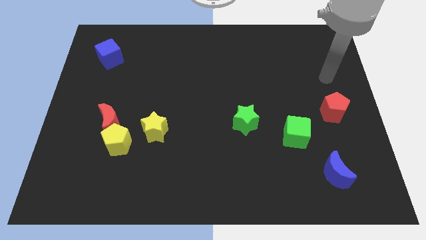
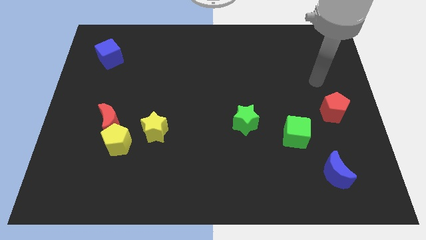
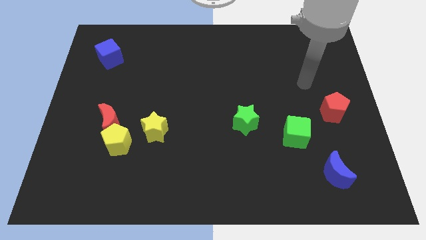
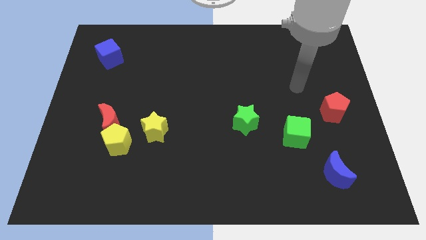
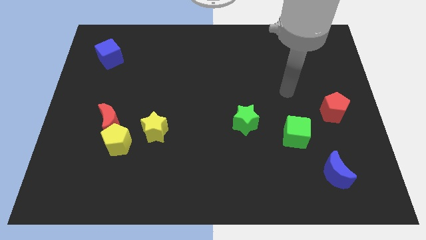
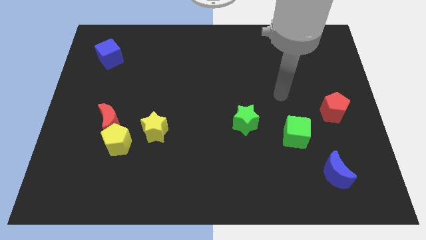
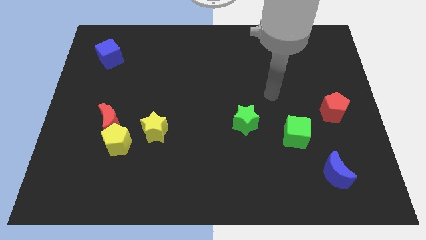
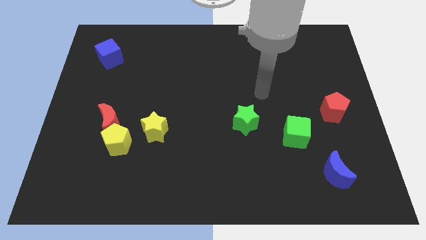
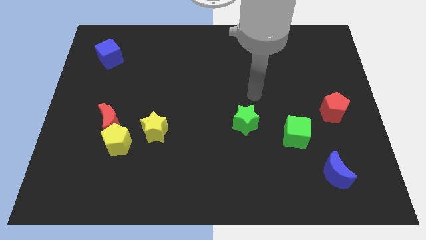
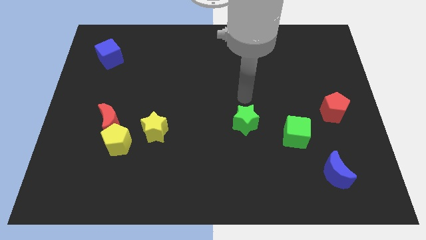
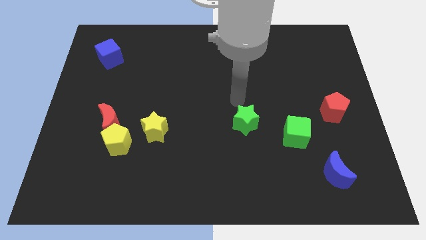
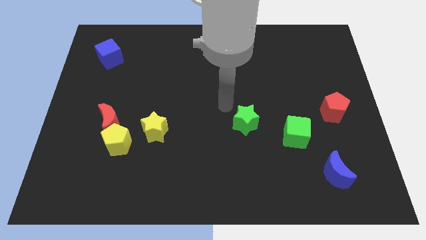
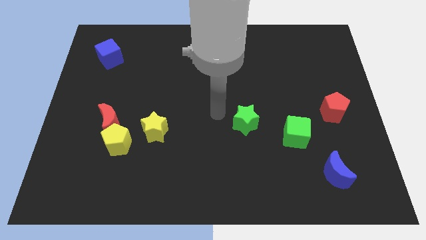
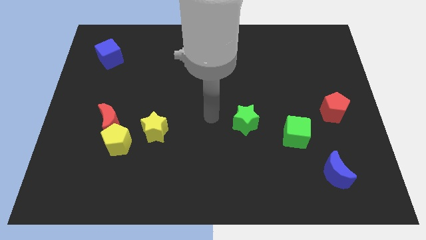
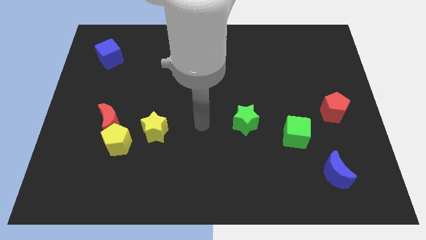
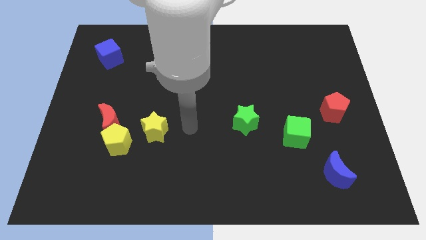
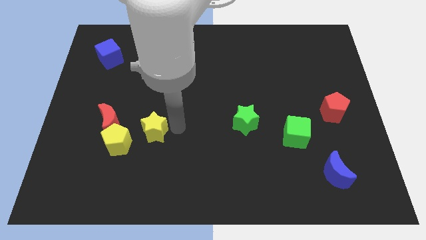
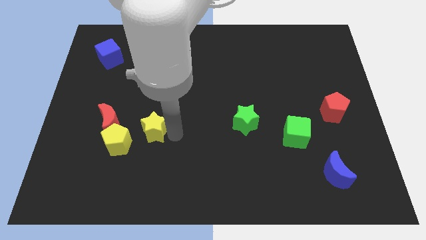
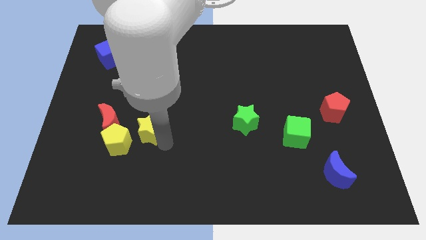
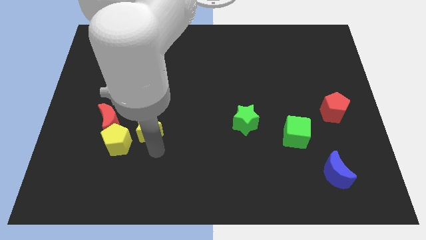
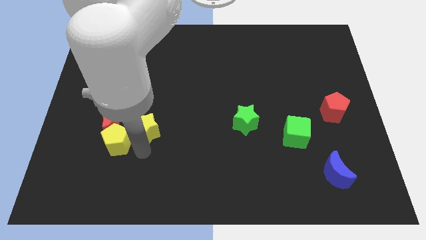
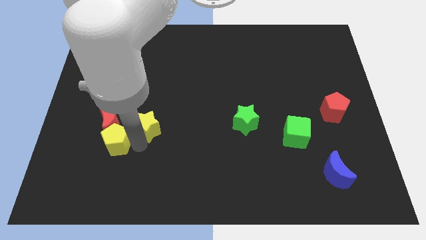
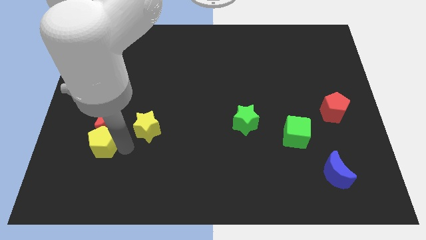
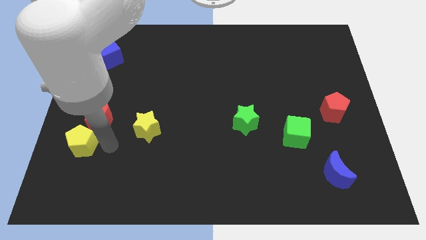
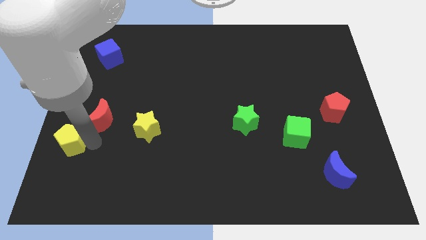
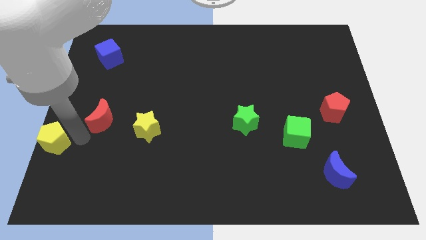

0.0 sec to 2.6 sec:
move the red moon away from the yellow pentagon

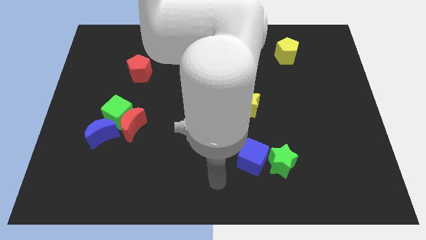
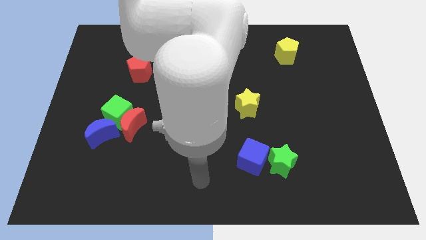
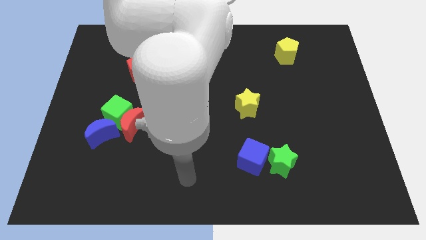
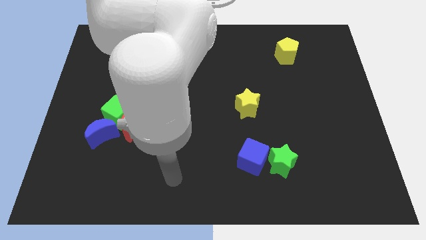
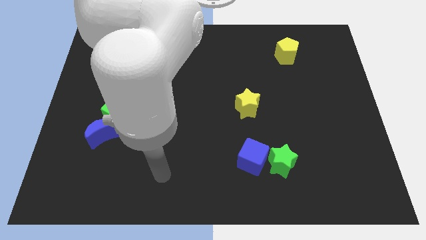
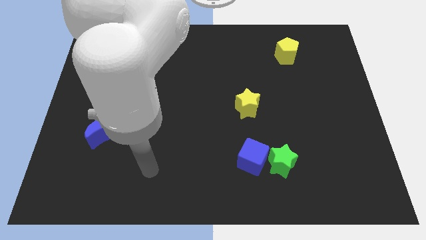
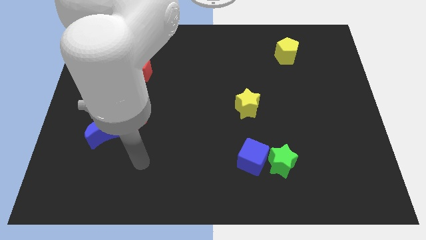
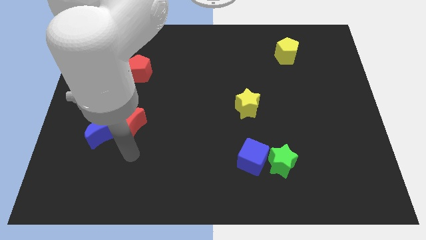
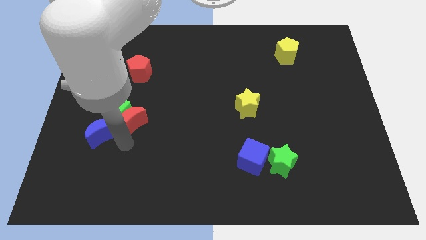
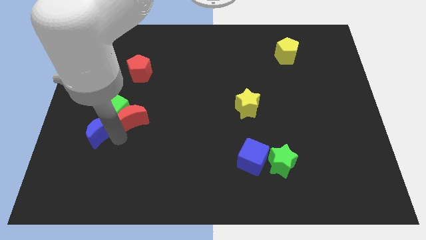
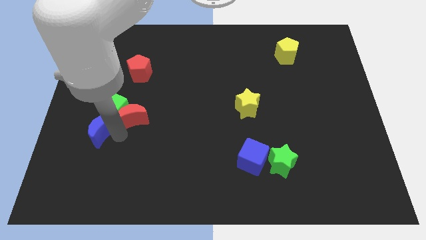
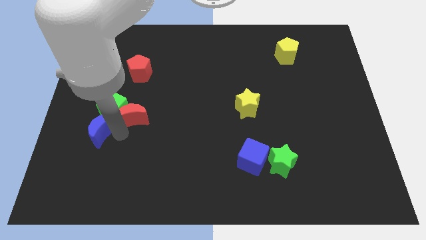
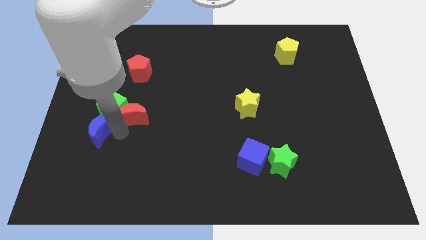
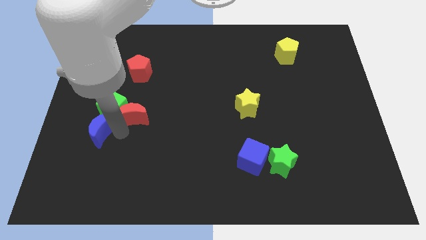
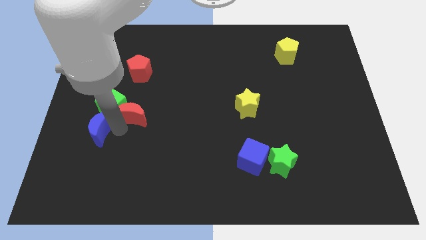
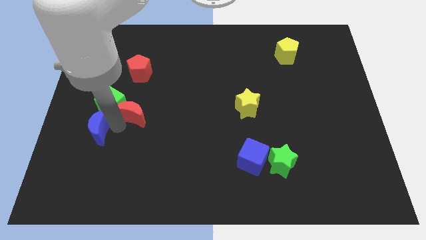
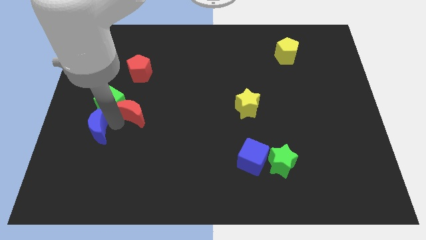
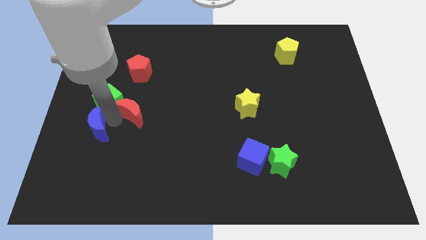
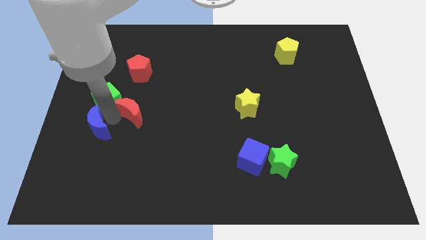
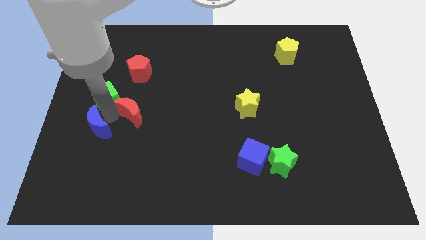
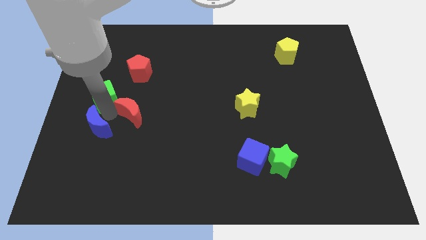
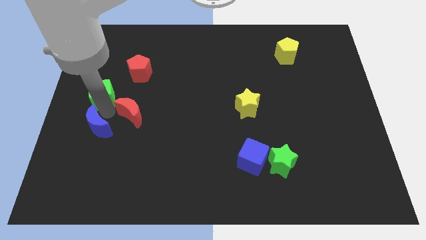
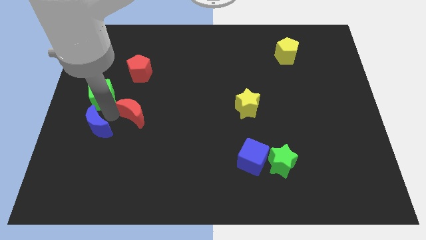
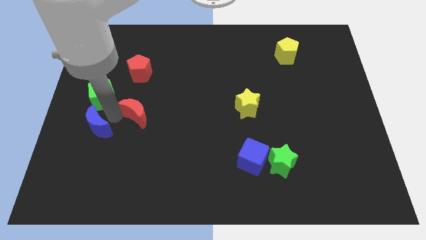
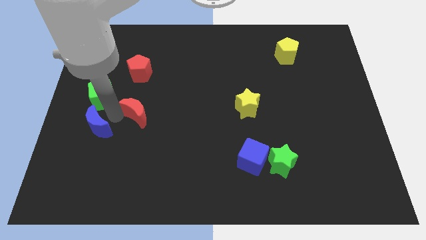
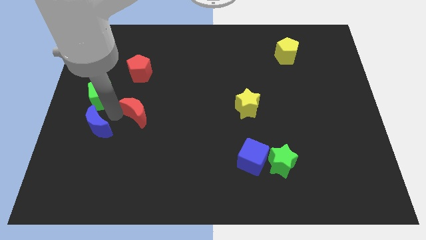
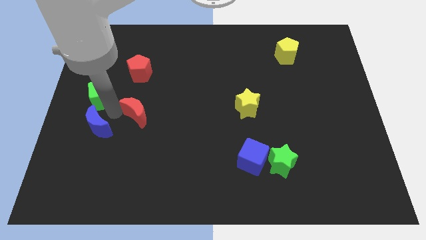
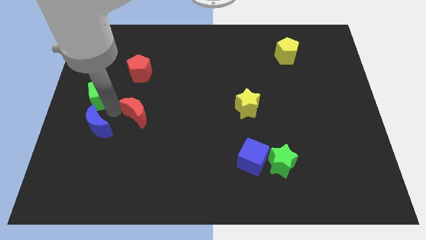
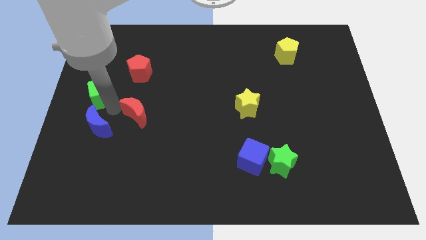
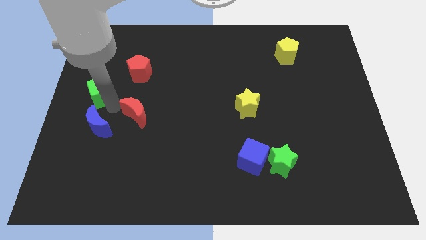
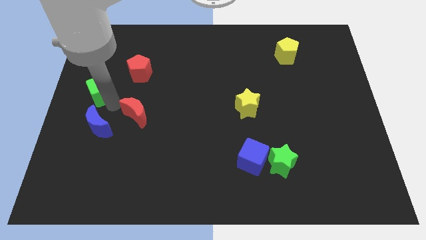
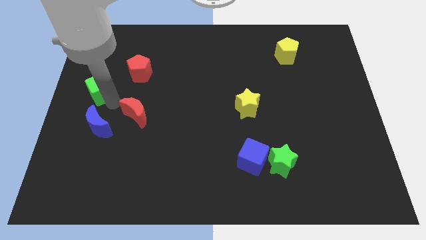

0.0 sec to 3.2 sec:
separate the green cube from the red moon and blue moon

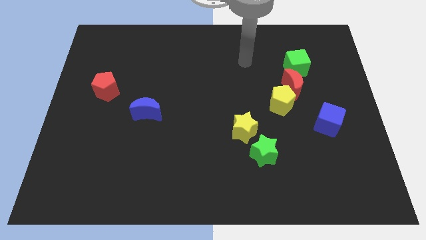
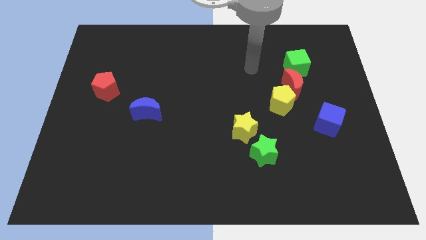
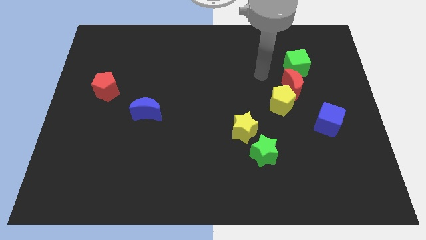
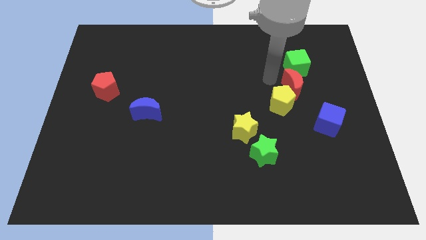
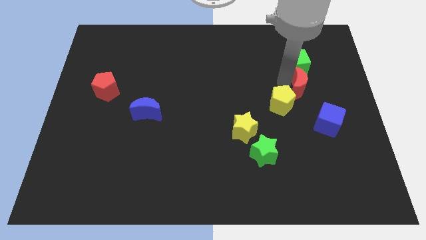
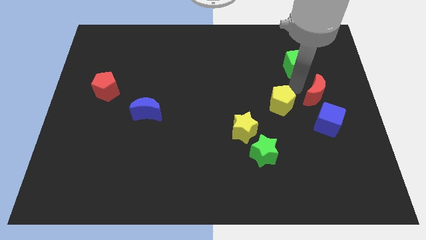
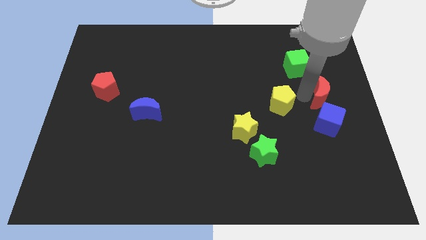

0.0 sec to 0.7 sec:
move the yellow pentagon away from the red moon

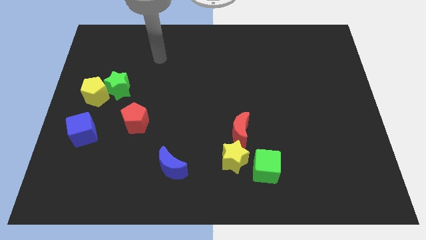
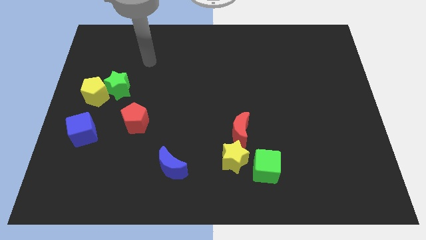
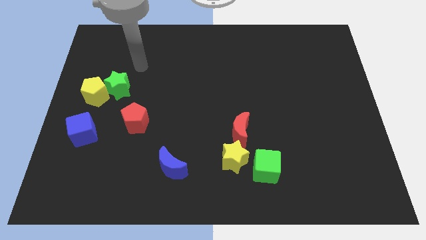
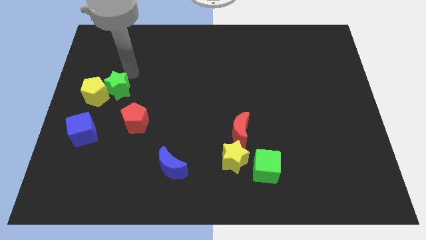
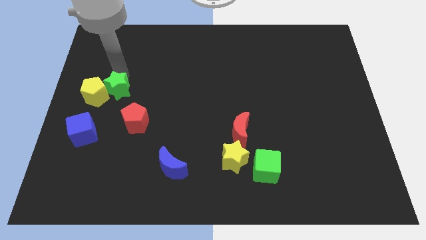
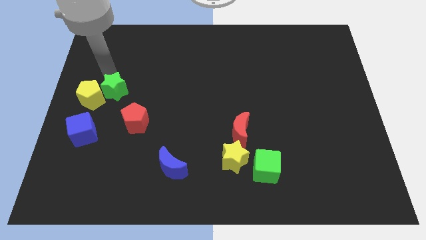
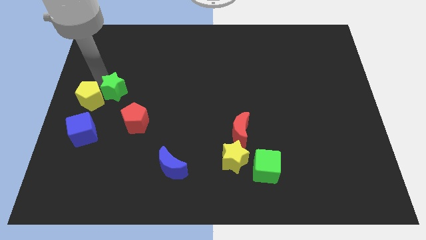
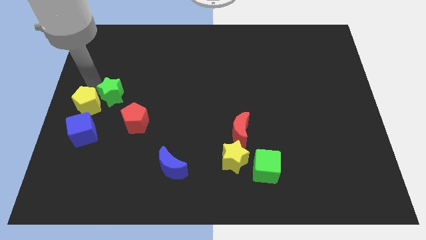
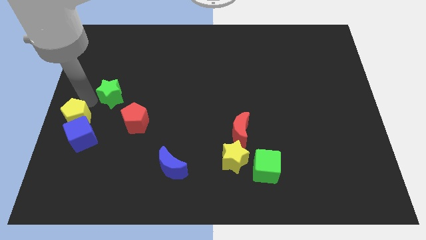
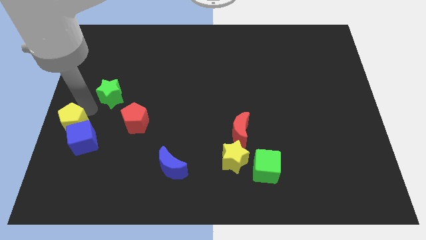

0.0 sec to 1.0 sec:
pull the green star apart from the yellow pentagon

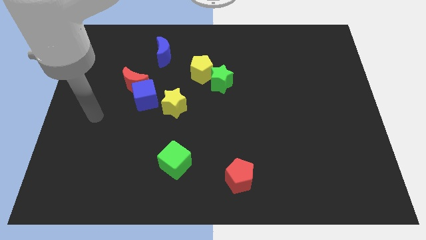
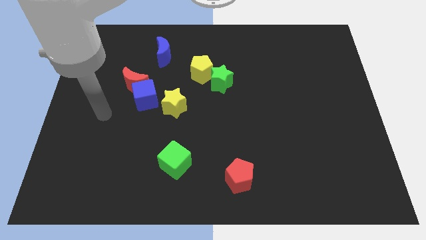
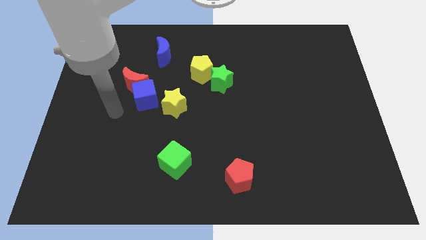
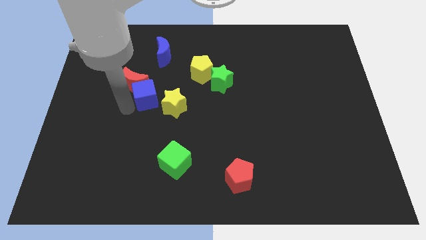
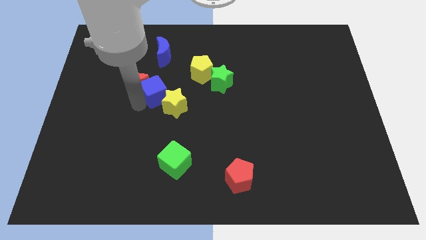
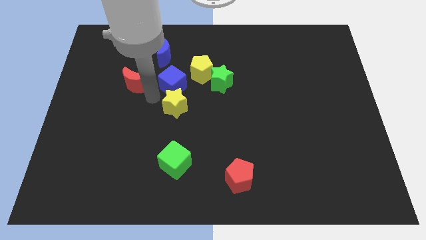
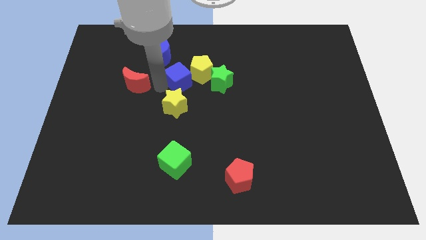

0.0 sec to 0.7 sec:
separate the red moon from the blue cube

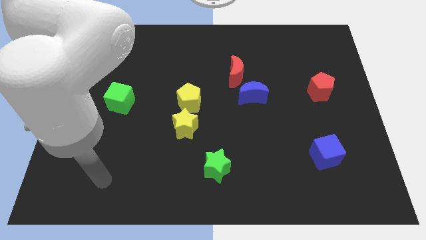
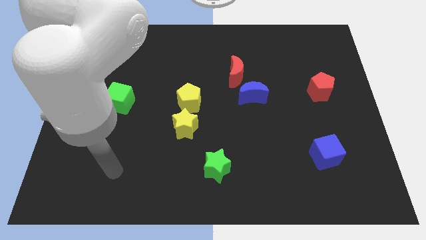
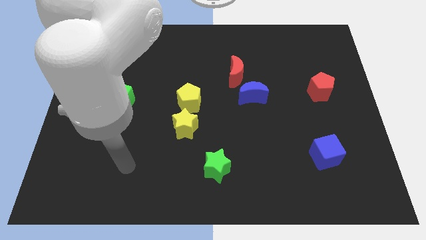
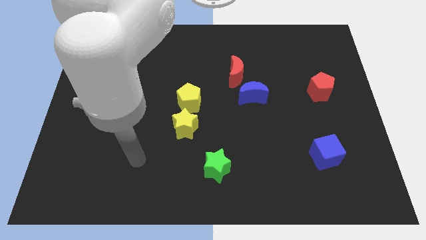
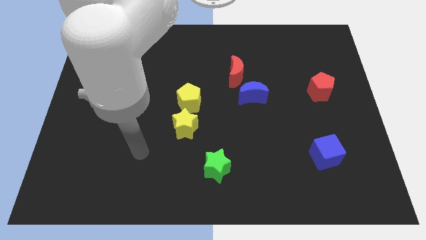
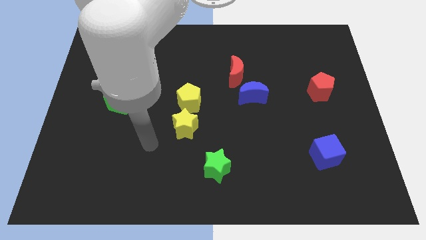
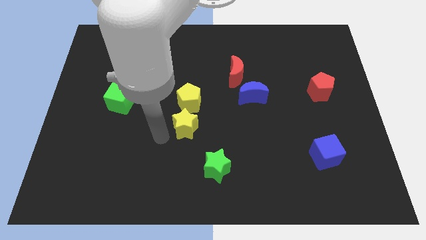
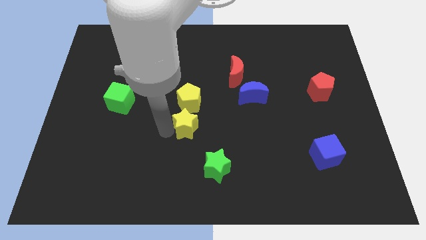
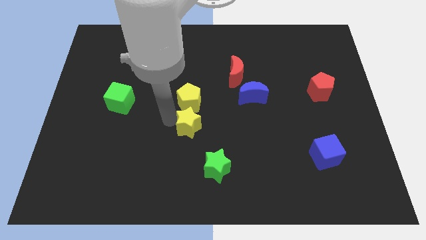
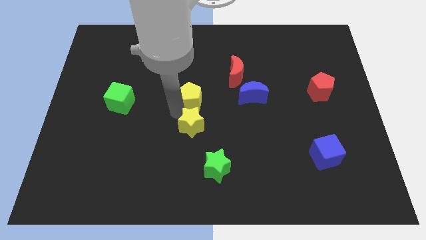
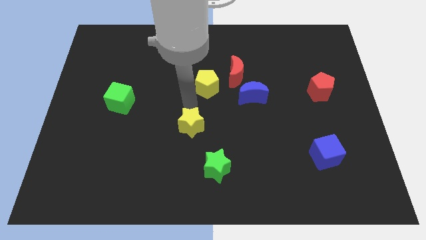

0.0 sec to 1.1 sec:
pull the yellow star apart from the yellow pentagon
